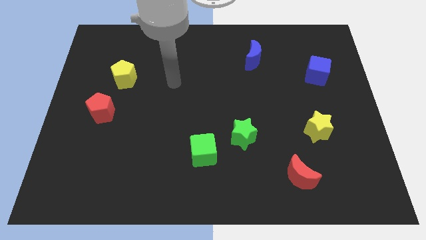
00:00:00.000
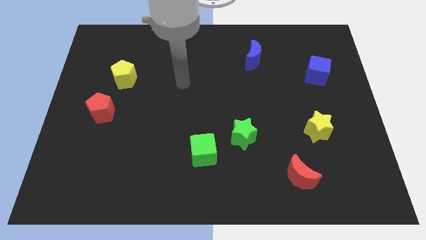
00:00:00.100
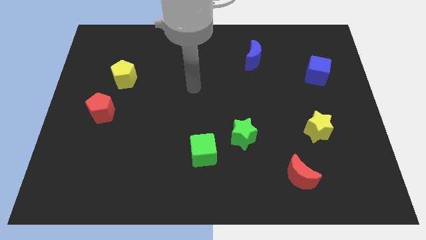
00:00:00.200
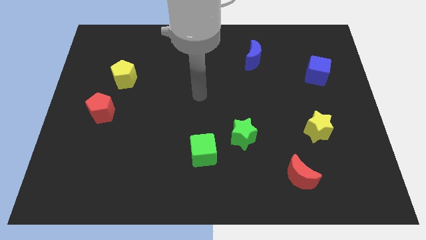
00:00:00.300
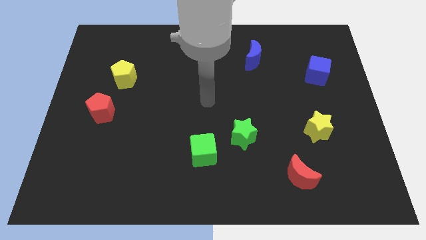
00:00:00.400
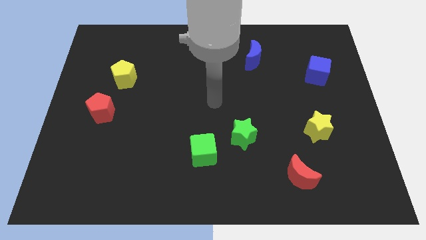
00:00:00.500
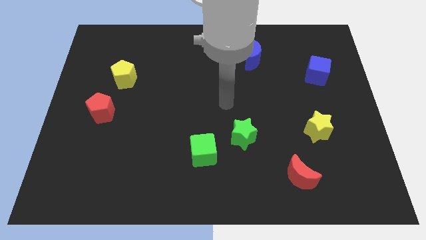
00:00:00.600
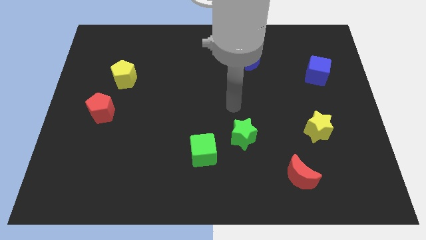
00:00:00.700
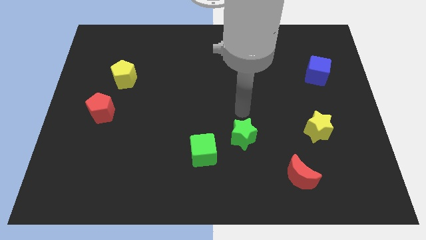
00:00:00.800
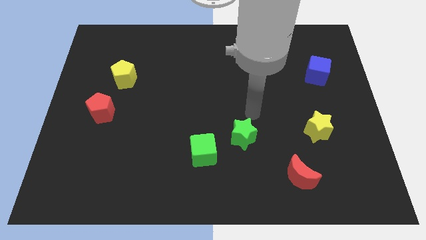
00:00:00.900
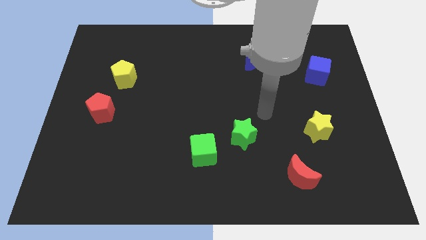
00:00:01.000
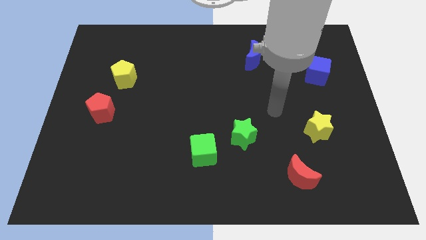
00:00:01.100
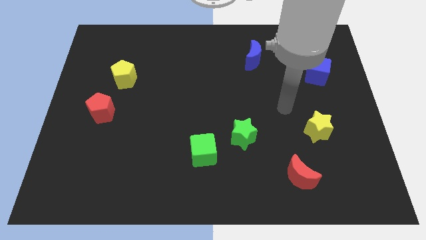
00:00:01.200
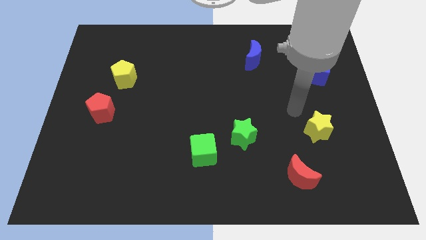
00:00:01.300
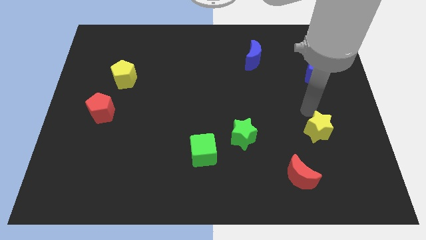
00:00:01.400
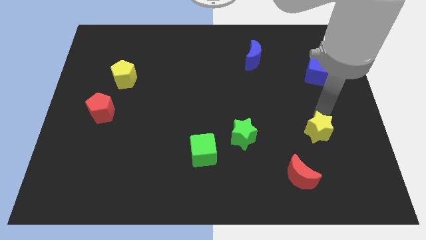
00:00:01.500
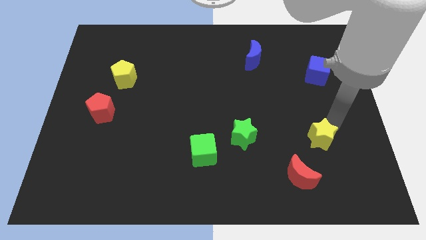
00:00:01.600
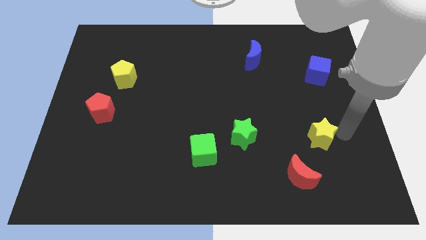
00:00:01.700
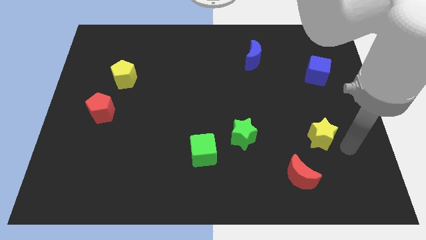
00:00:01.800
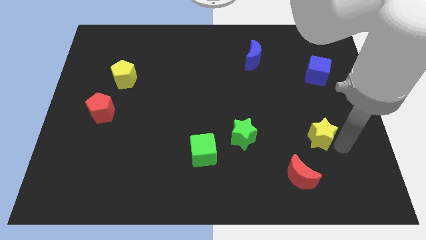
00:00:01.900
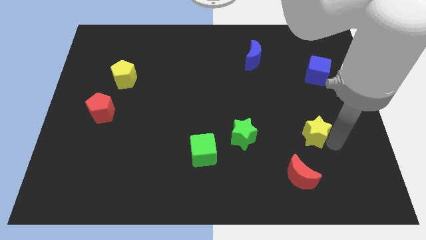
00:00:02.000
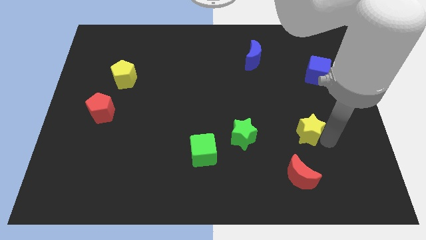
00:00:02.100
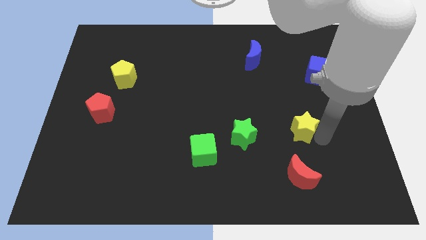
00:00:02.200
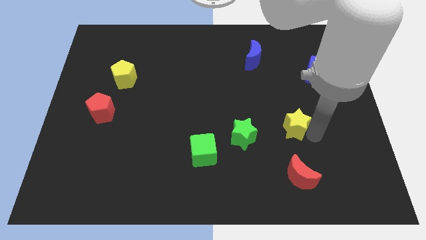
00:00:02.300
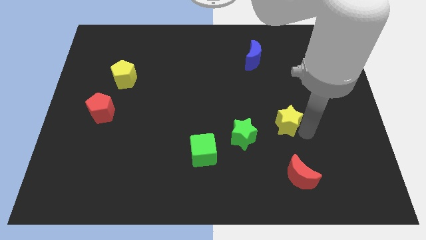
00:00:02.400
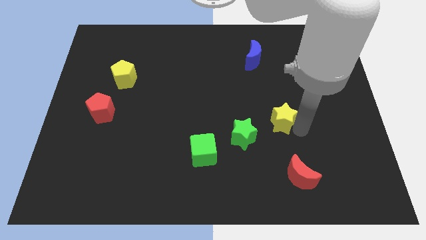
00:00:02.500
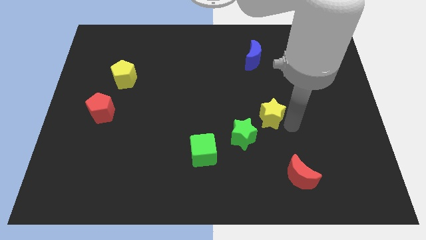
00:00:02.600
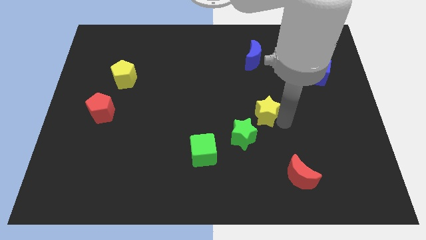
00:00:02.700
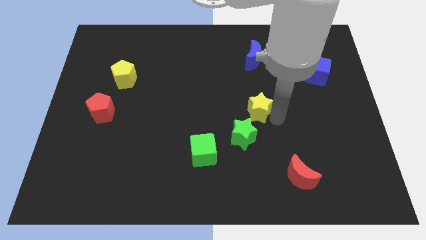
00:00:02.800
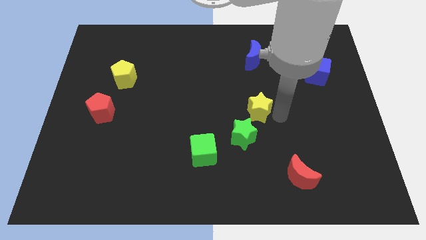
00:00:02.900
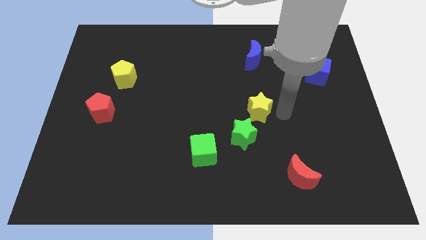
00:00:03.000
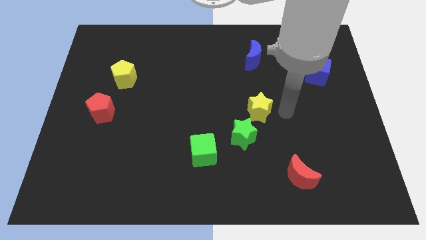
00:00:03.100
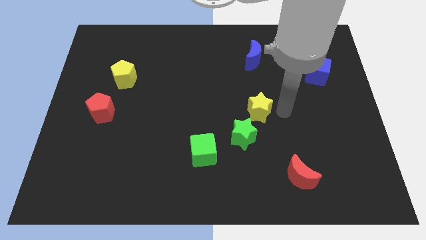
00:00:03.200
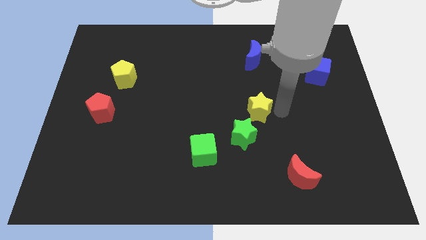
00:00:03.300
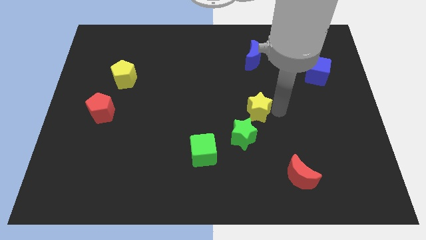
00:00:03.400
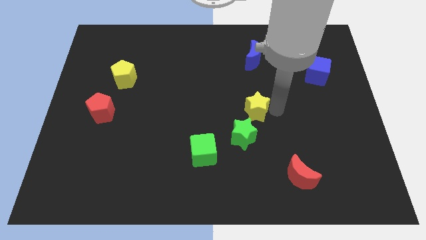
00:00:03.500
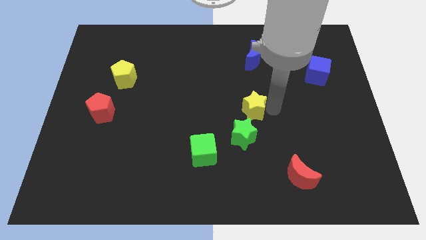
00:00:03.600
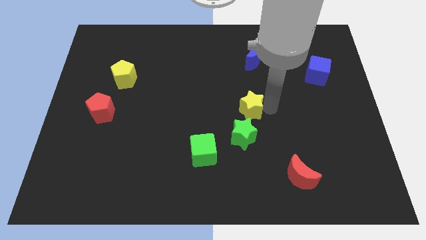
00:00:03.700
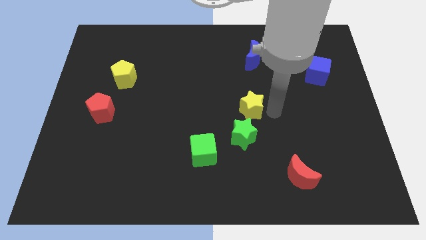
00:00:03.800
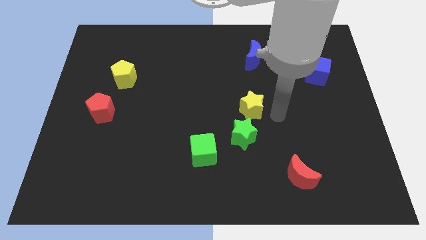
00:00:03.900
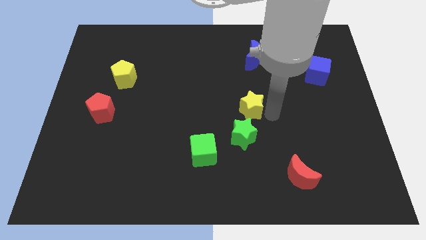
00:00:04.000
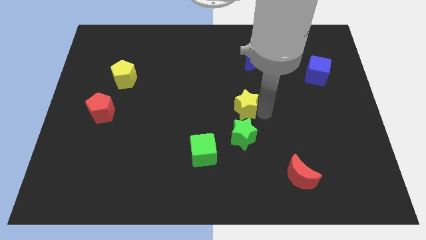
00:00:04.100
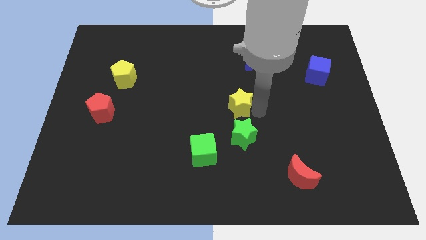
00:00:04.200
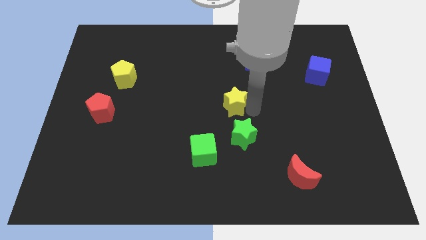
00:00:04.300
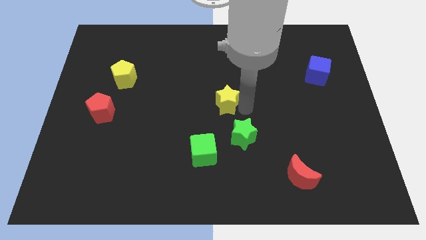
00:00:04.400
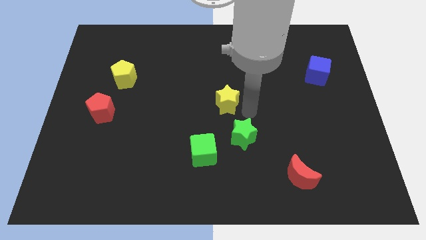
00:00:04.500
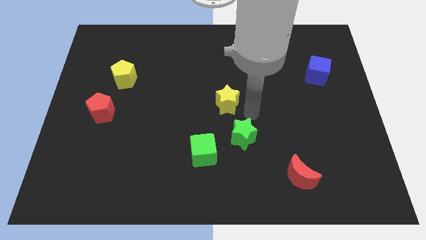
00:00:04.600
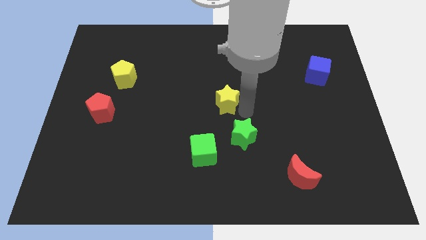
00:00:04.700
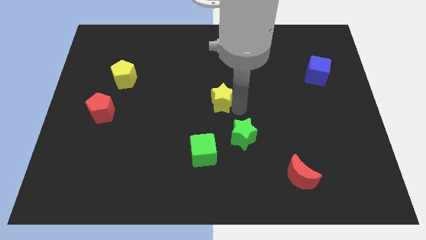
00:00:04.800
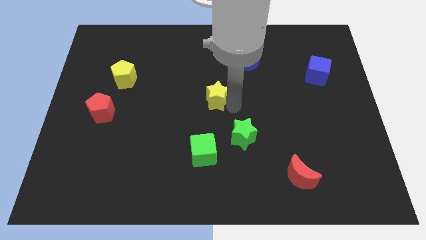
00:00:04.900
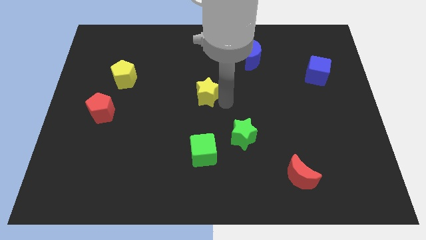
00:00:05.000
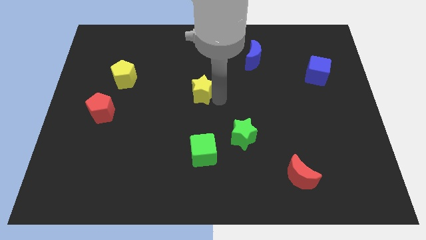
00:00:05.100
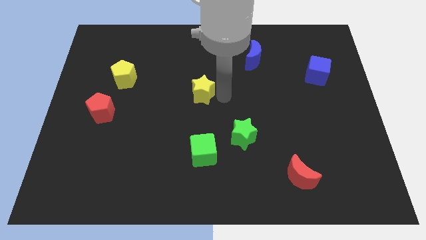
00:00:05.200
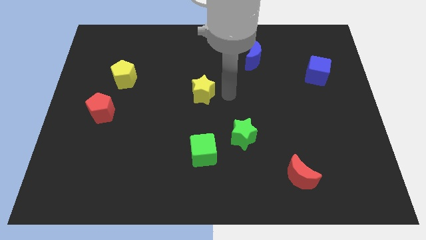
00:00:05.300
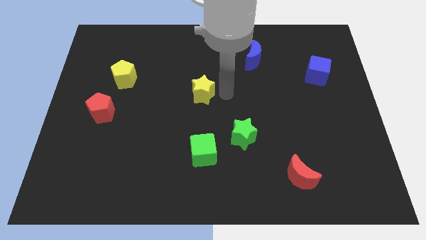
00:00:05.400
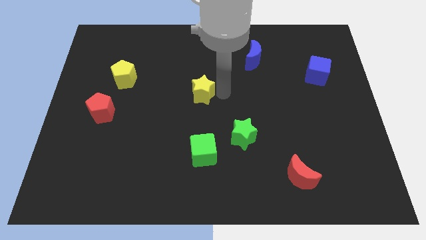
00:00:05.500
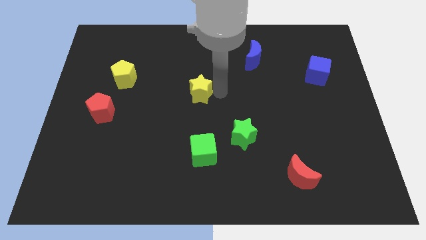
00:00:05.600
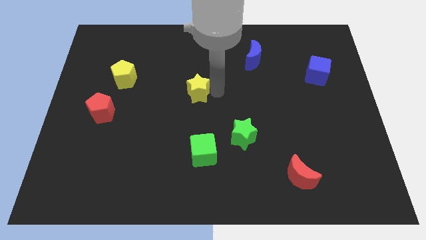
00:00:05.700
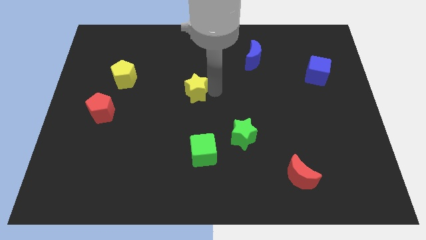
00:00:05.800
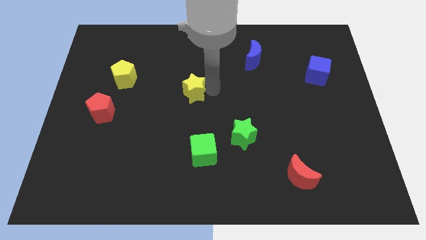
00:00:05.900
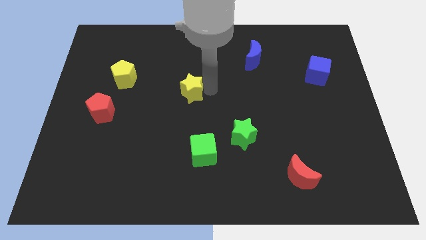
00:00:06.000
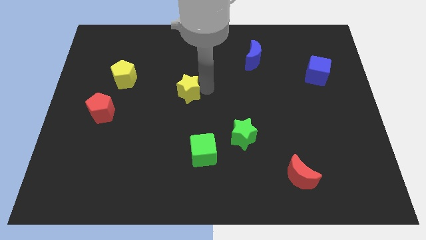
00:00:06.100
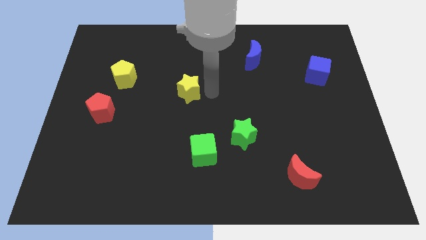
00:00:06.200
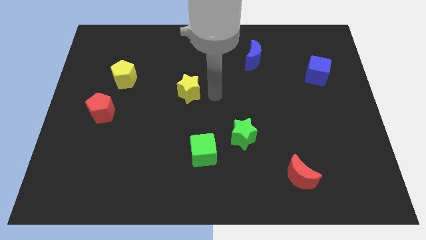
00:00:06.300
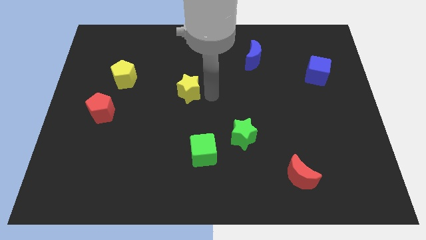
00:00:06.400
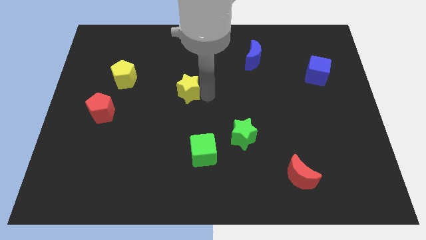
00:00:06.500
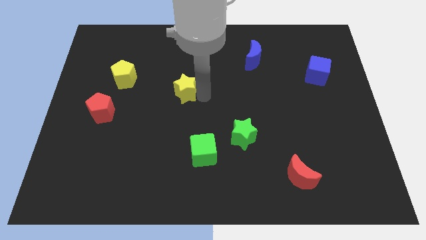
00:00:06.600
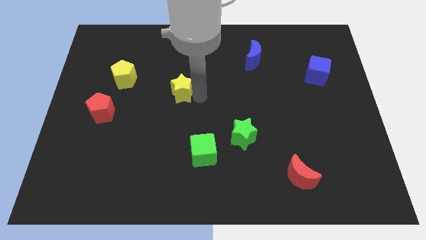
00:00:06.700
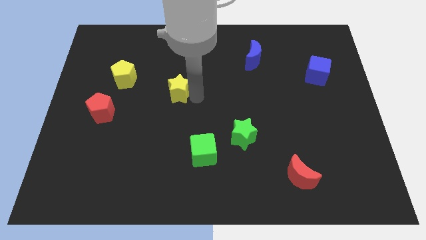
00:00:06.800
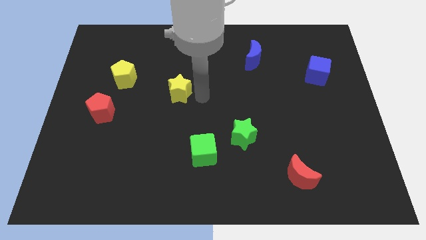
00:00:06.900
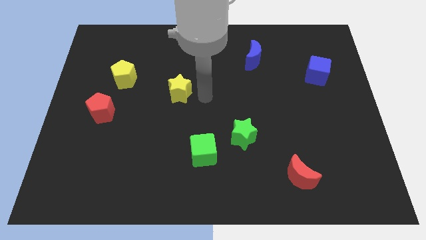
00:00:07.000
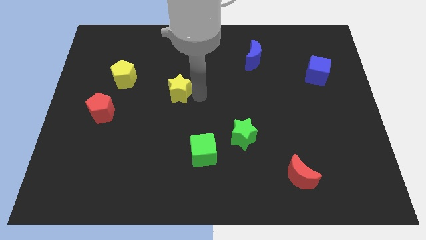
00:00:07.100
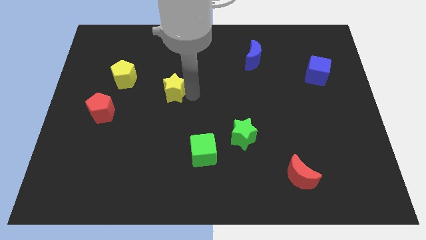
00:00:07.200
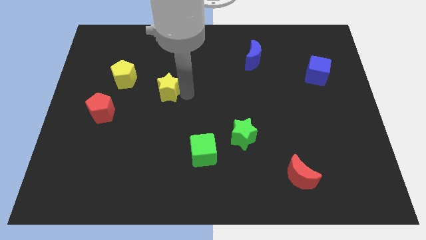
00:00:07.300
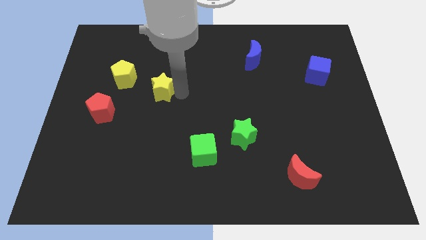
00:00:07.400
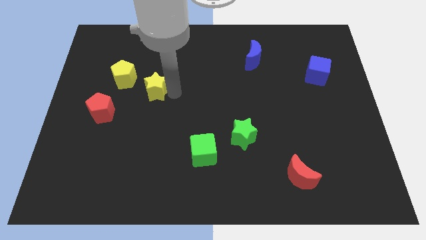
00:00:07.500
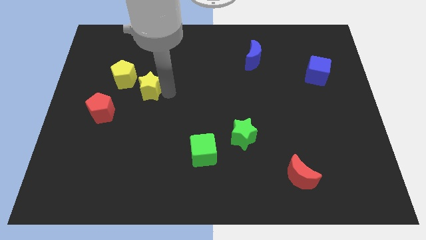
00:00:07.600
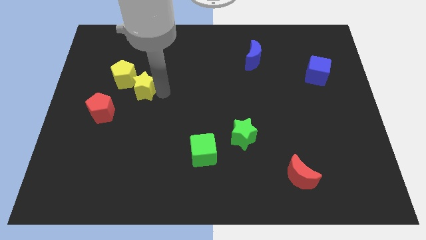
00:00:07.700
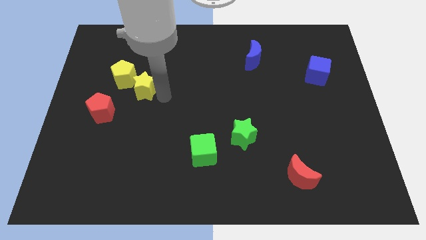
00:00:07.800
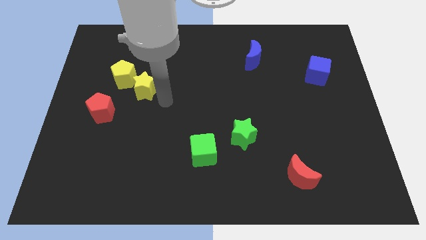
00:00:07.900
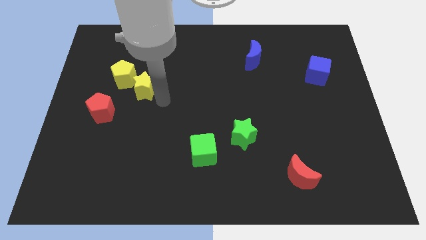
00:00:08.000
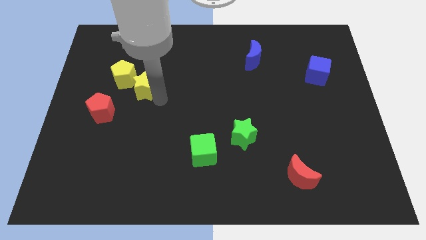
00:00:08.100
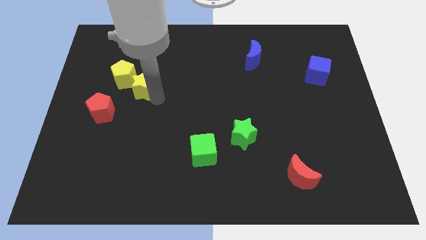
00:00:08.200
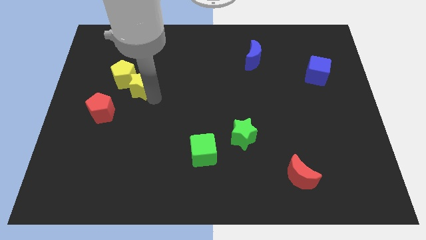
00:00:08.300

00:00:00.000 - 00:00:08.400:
move the yellow star towards the yellow pentagon
